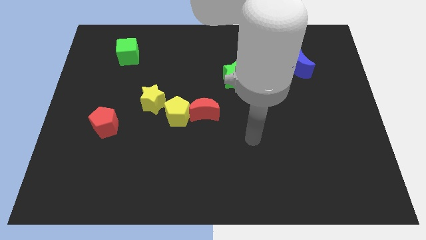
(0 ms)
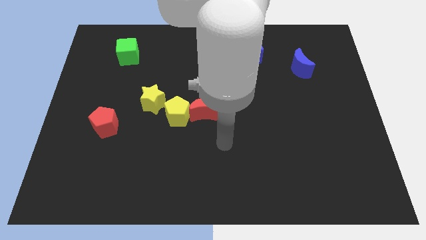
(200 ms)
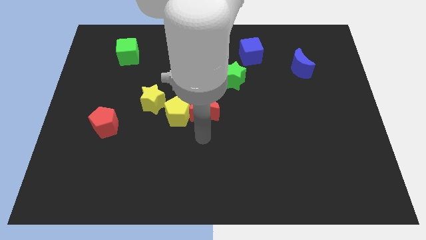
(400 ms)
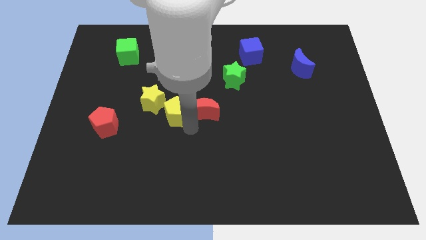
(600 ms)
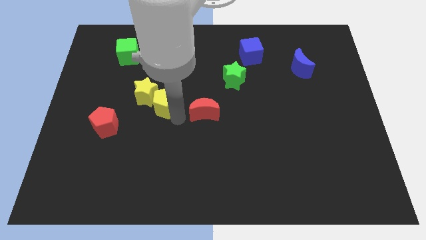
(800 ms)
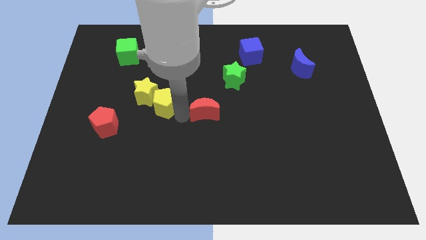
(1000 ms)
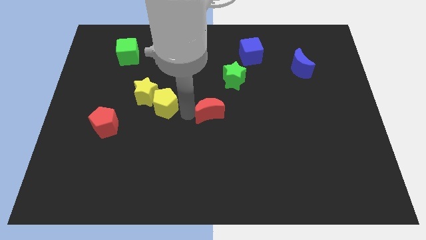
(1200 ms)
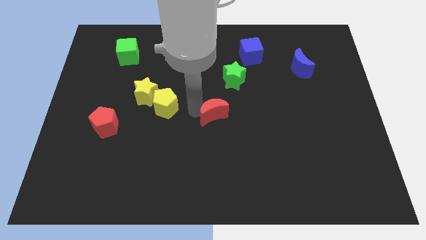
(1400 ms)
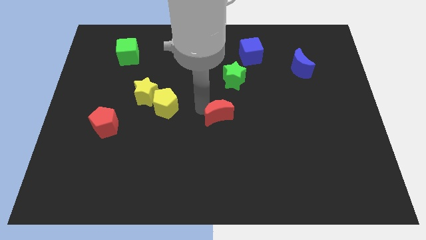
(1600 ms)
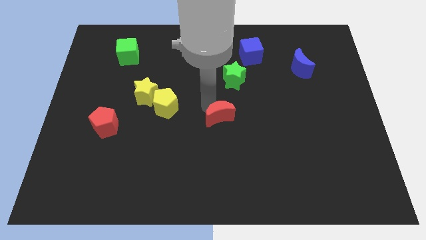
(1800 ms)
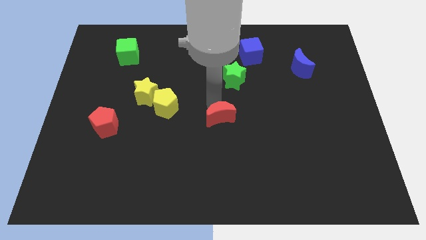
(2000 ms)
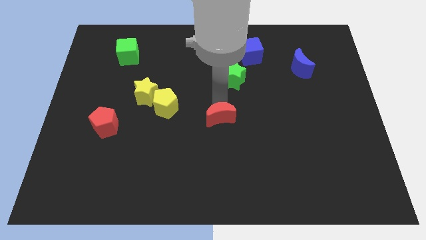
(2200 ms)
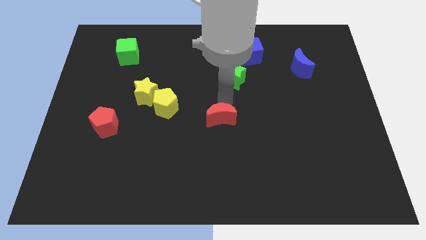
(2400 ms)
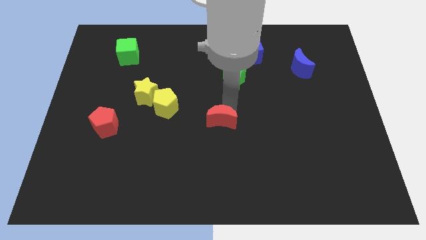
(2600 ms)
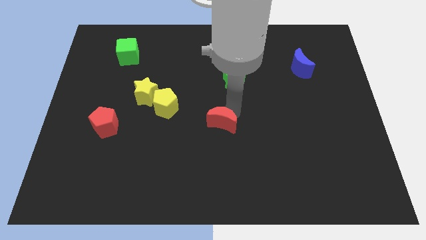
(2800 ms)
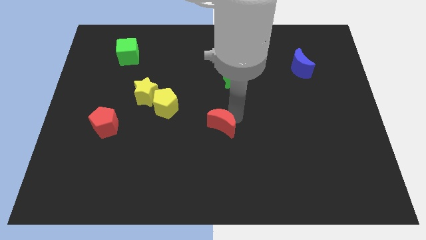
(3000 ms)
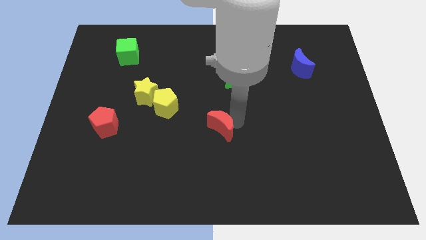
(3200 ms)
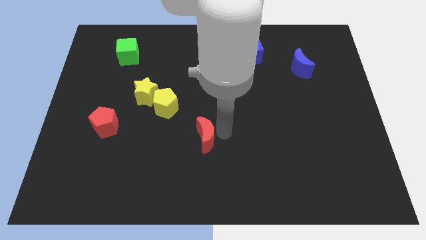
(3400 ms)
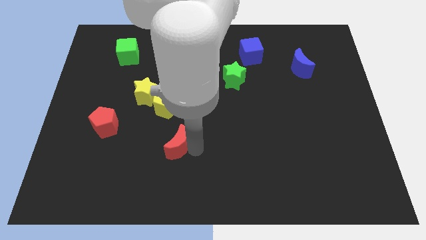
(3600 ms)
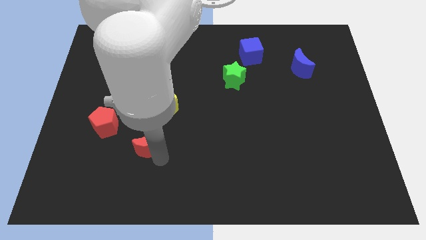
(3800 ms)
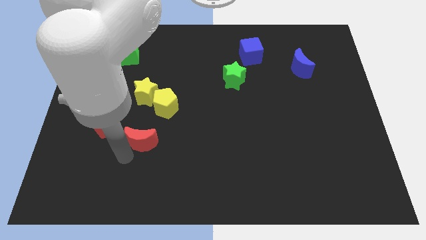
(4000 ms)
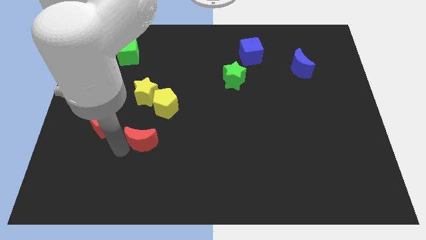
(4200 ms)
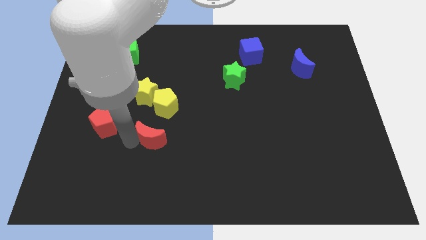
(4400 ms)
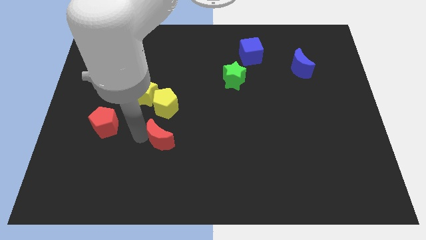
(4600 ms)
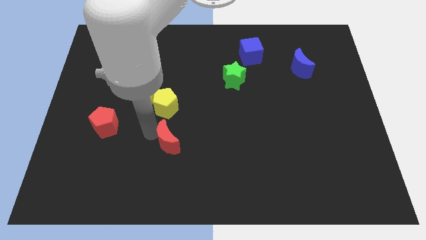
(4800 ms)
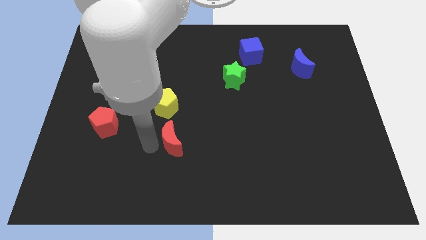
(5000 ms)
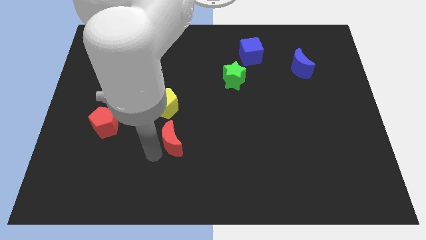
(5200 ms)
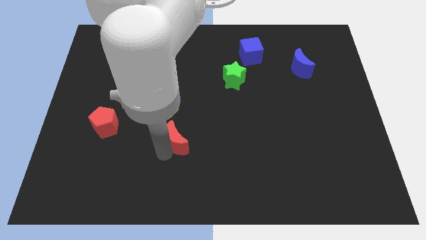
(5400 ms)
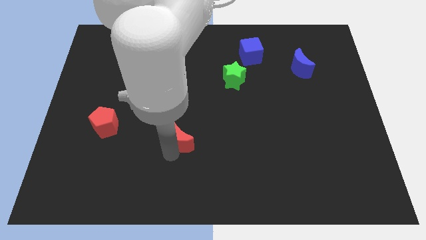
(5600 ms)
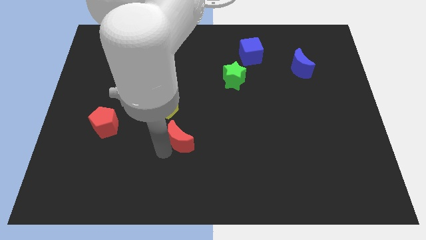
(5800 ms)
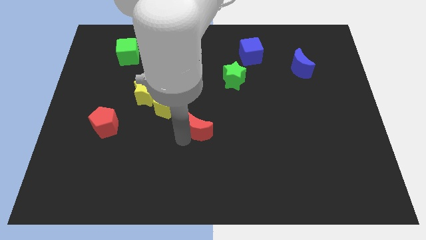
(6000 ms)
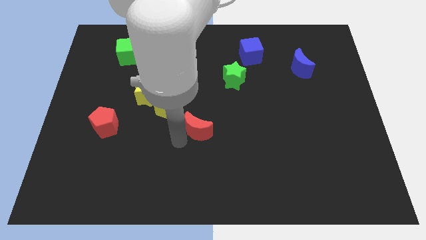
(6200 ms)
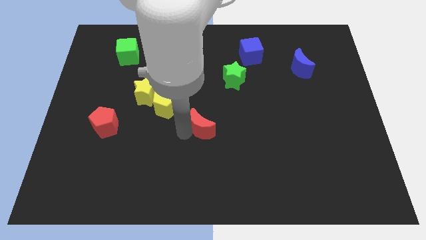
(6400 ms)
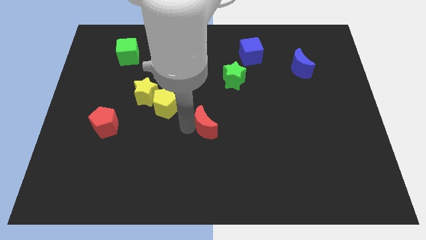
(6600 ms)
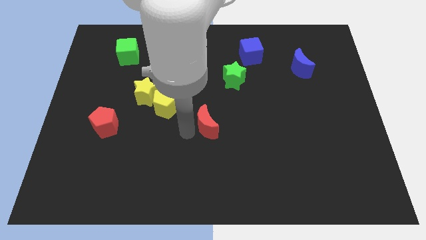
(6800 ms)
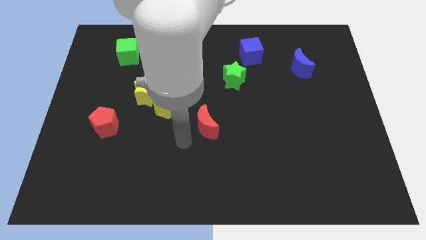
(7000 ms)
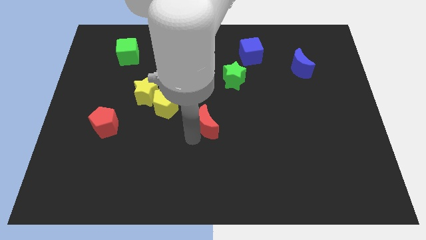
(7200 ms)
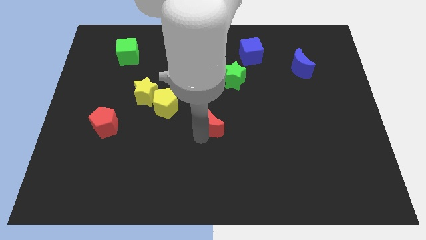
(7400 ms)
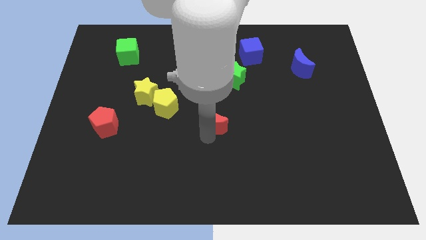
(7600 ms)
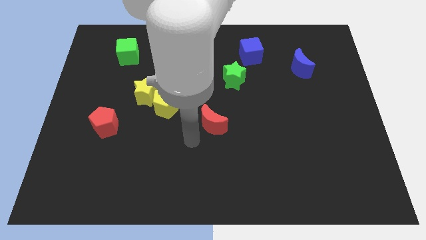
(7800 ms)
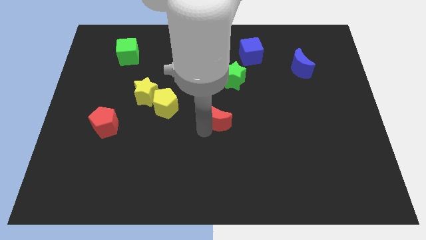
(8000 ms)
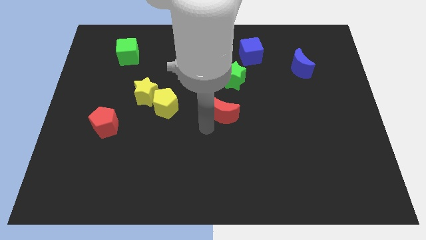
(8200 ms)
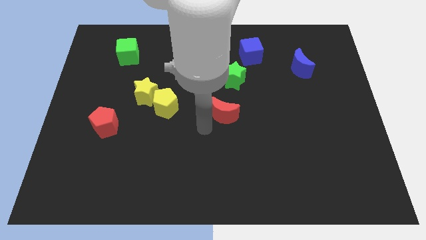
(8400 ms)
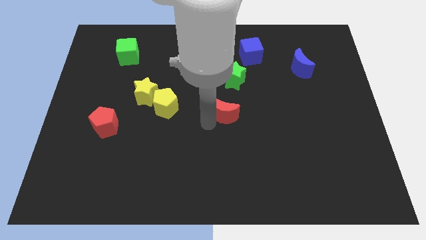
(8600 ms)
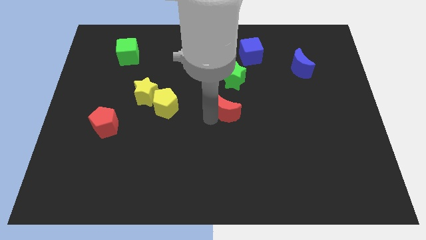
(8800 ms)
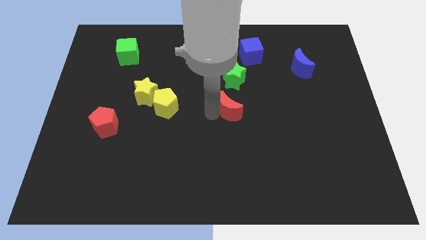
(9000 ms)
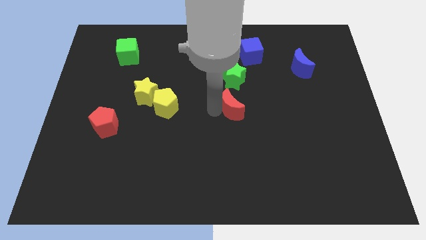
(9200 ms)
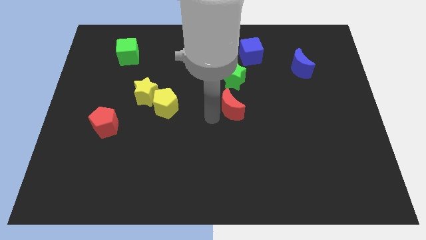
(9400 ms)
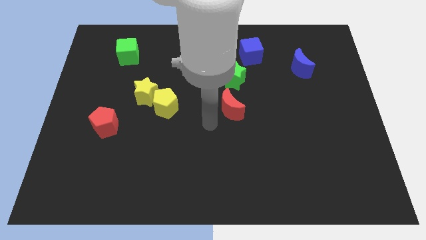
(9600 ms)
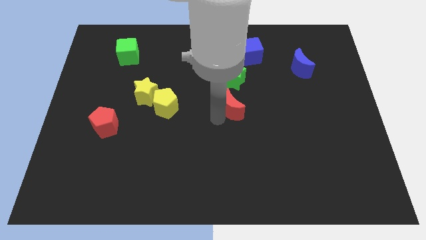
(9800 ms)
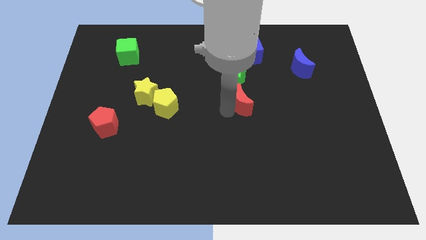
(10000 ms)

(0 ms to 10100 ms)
put the red moon diagonally down and to the right of the green star

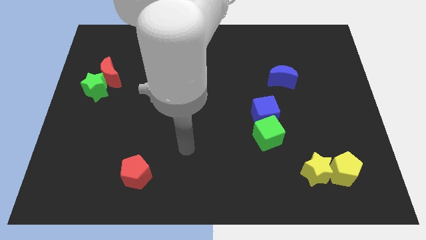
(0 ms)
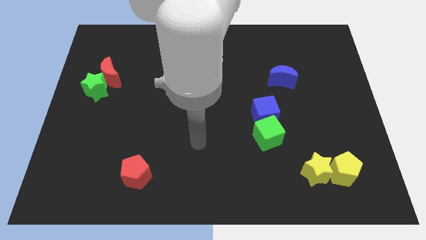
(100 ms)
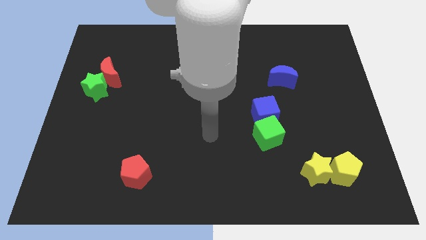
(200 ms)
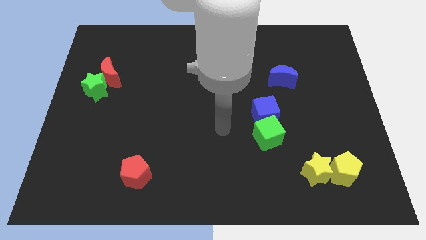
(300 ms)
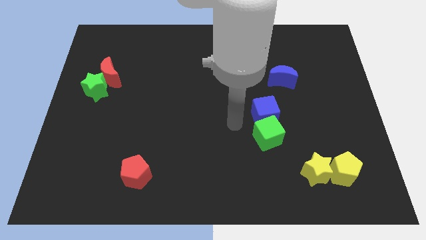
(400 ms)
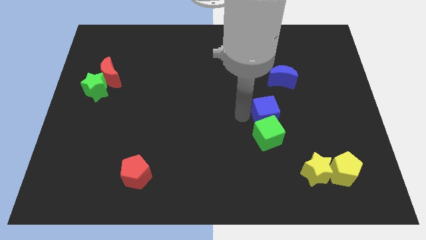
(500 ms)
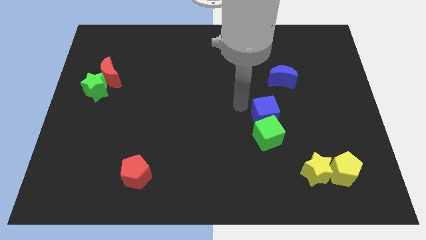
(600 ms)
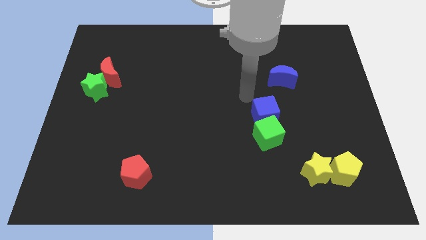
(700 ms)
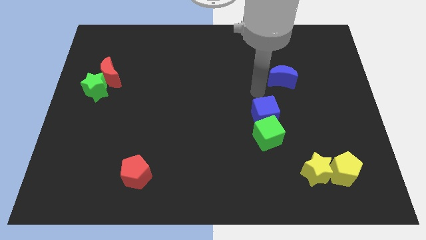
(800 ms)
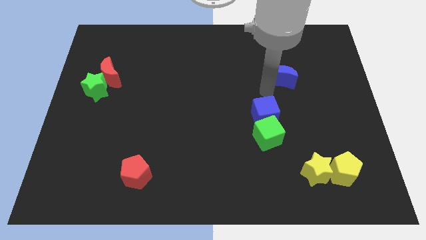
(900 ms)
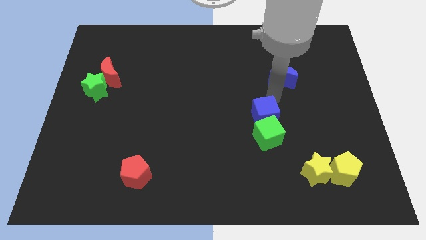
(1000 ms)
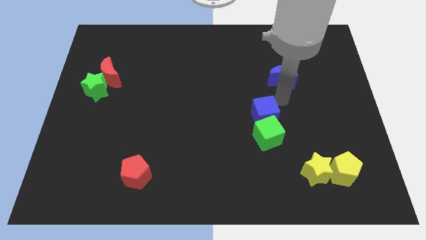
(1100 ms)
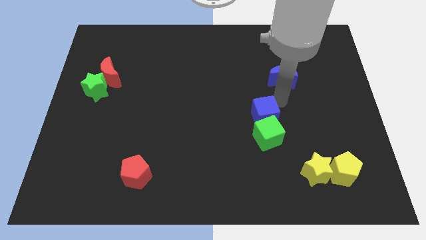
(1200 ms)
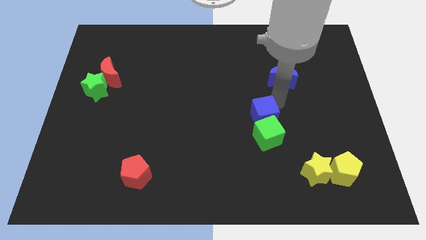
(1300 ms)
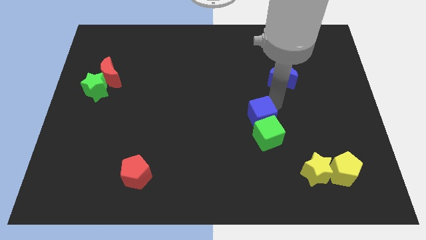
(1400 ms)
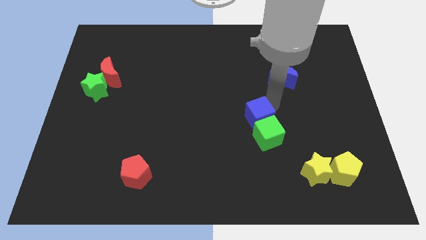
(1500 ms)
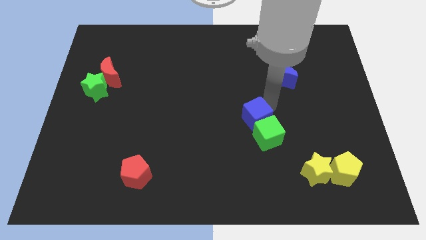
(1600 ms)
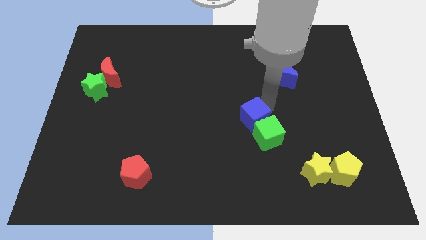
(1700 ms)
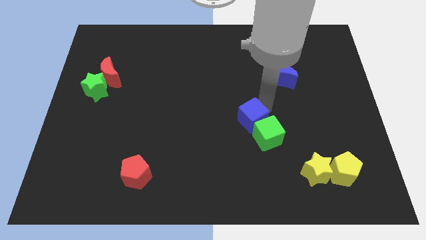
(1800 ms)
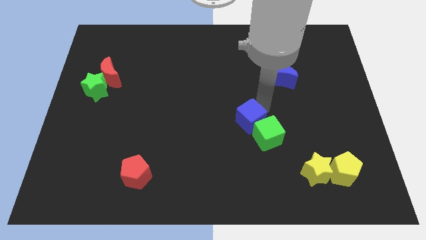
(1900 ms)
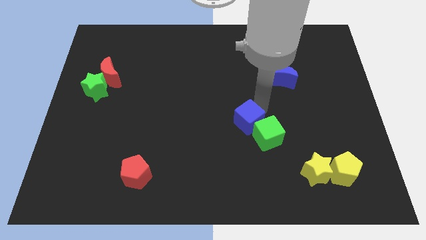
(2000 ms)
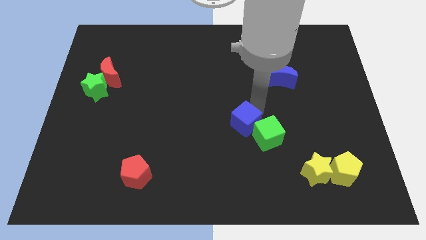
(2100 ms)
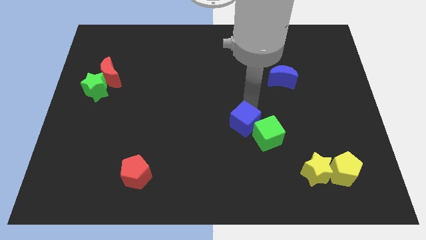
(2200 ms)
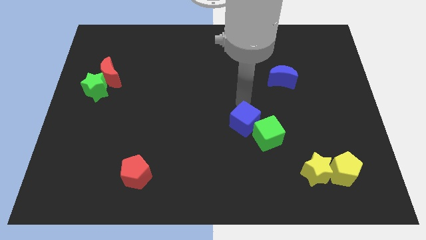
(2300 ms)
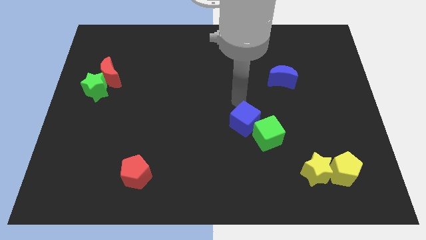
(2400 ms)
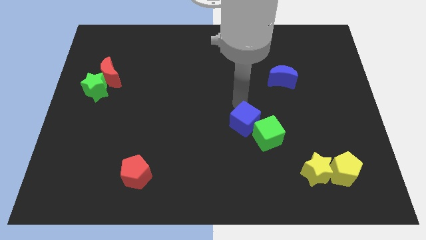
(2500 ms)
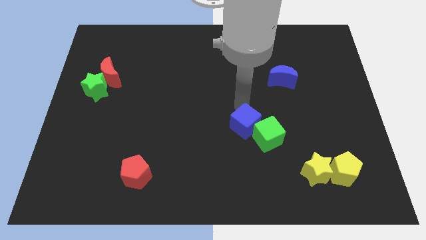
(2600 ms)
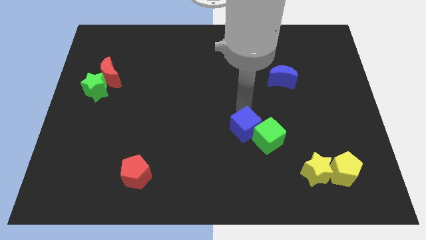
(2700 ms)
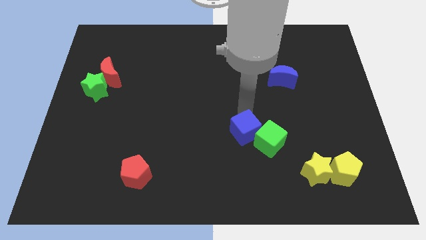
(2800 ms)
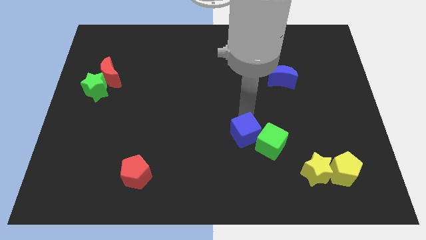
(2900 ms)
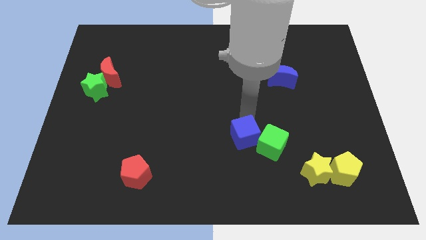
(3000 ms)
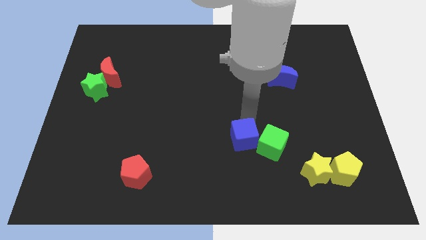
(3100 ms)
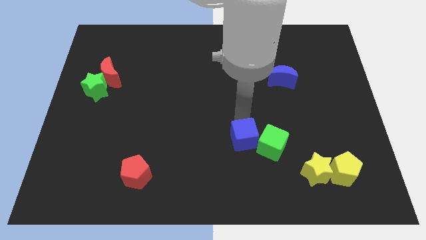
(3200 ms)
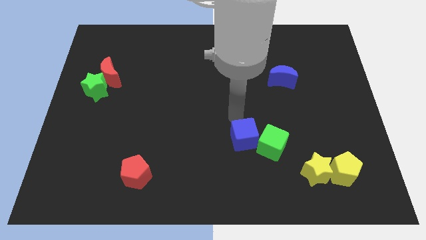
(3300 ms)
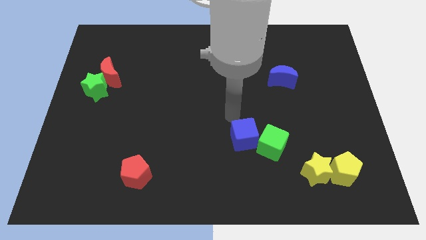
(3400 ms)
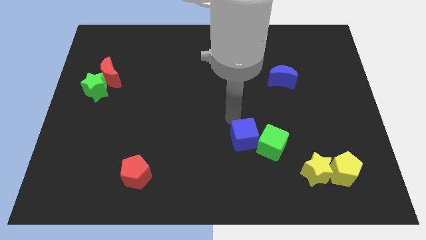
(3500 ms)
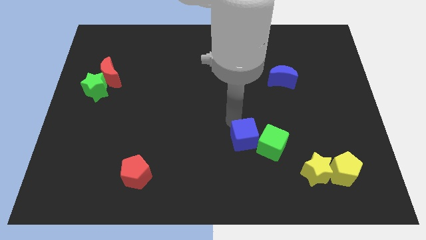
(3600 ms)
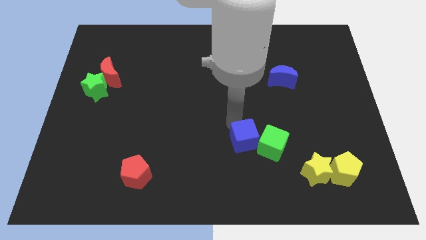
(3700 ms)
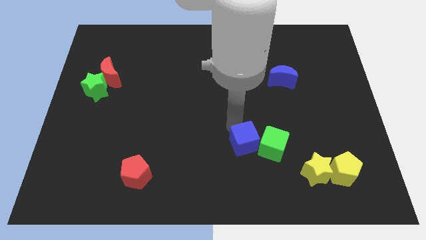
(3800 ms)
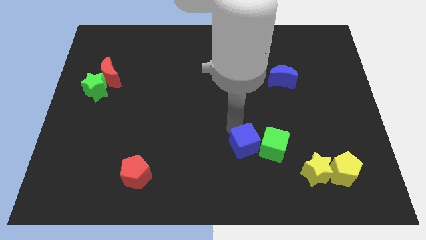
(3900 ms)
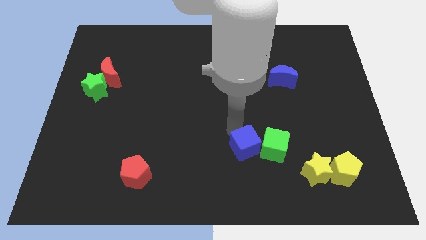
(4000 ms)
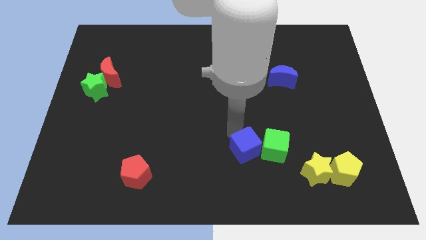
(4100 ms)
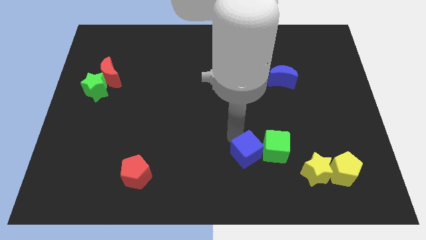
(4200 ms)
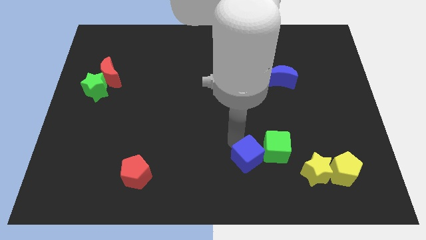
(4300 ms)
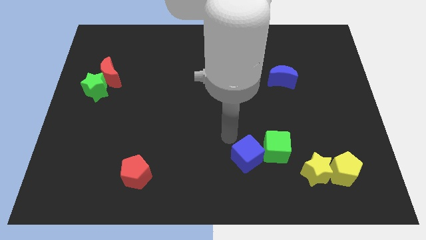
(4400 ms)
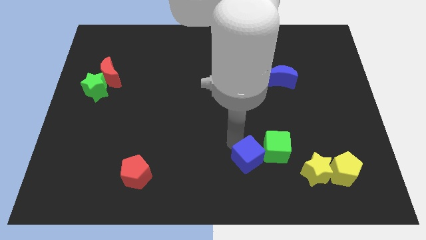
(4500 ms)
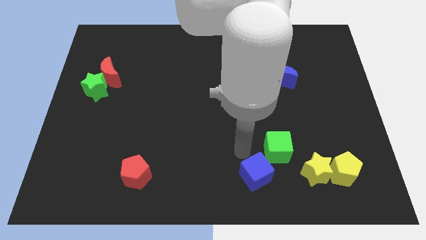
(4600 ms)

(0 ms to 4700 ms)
push the blue cube to the bottom side of the green cube
